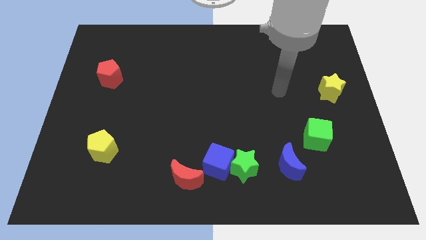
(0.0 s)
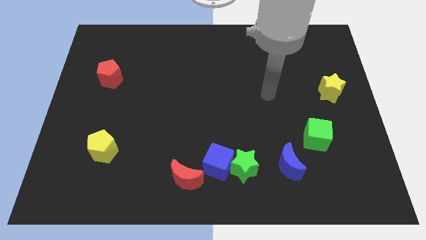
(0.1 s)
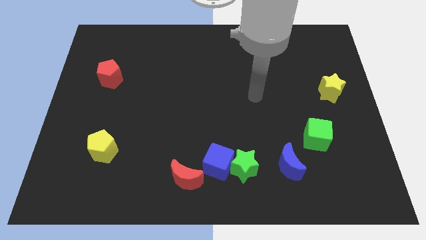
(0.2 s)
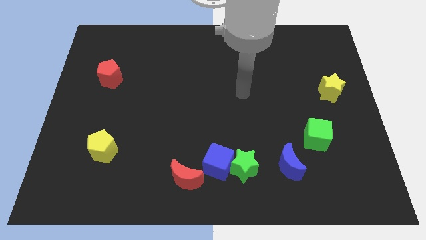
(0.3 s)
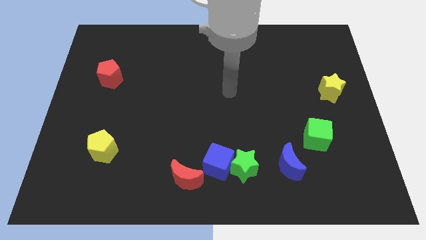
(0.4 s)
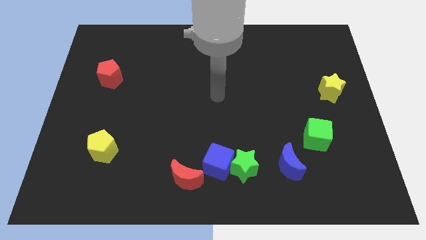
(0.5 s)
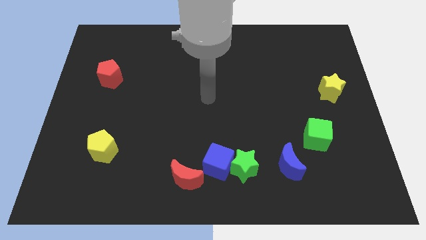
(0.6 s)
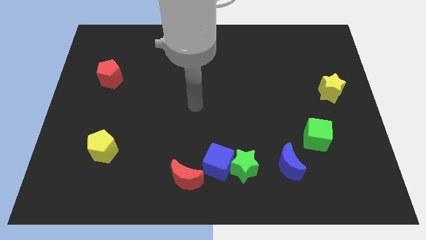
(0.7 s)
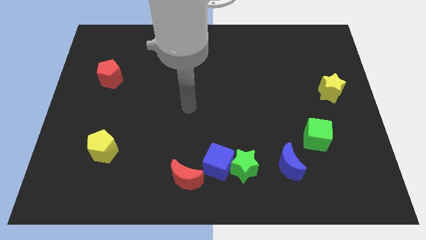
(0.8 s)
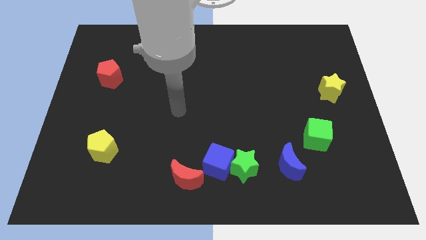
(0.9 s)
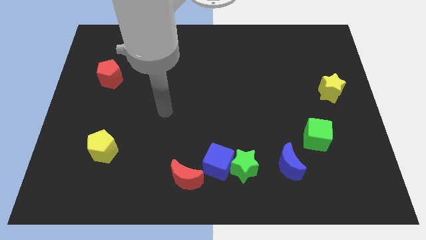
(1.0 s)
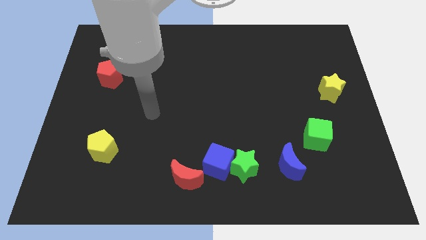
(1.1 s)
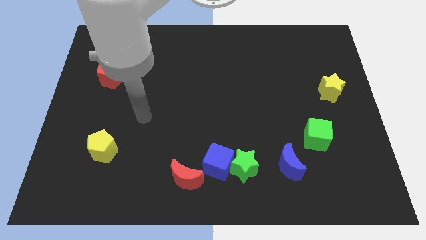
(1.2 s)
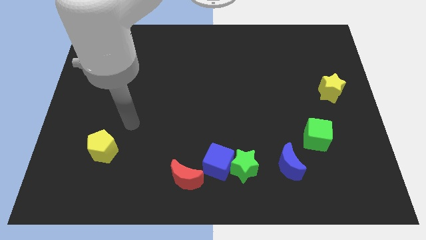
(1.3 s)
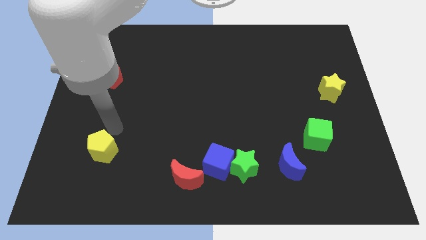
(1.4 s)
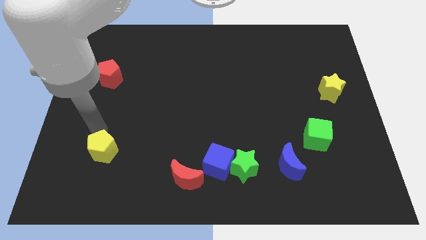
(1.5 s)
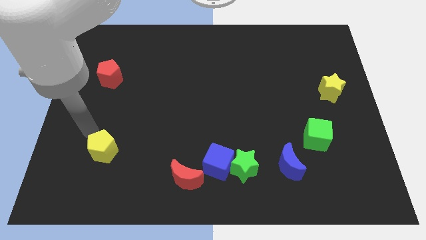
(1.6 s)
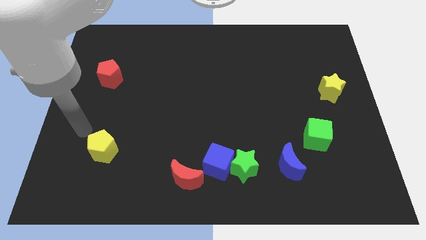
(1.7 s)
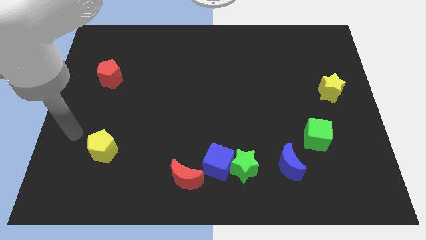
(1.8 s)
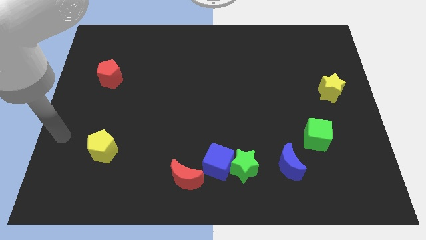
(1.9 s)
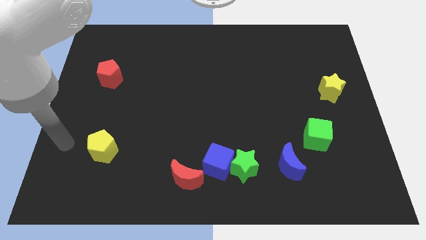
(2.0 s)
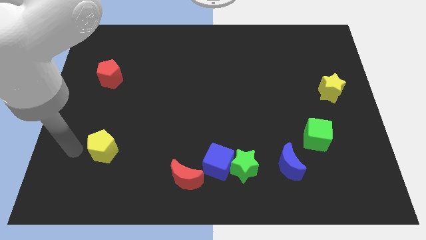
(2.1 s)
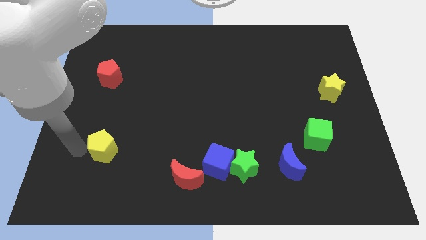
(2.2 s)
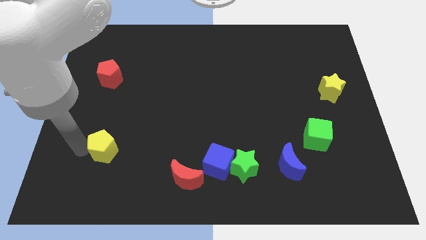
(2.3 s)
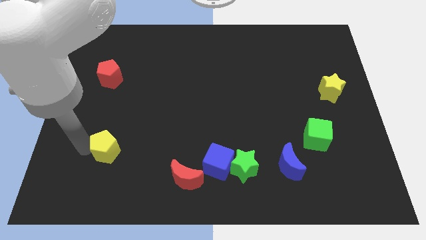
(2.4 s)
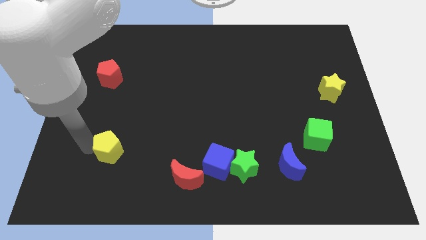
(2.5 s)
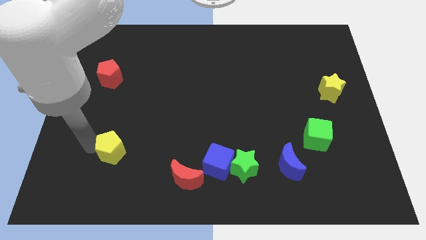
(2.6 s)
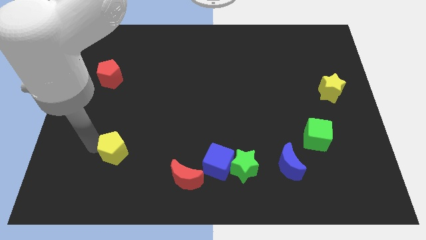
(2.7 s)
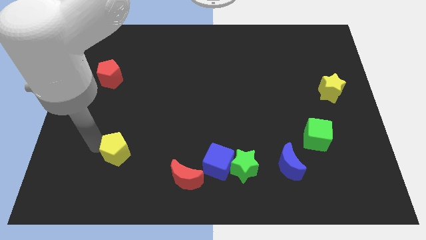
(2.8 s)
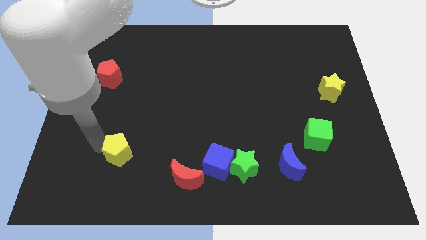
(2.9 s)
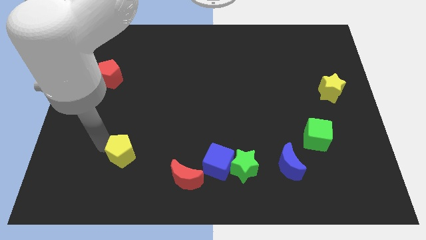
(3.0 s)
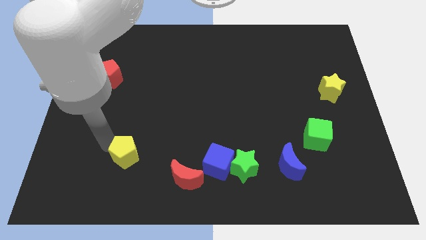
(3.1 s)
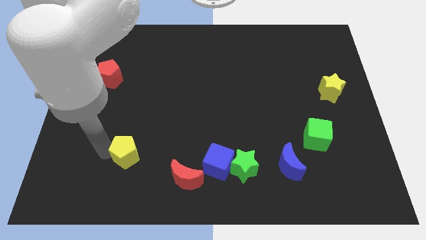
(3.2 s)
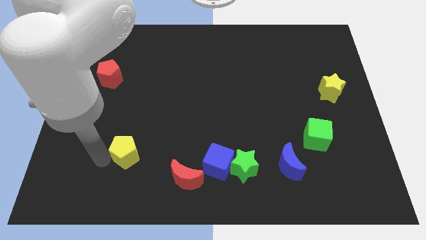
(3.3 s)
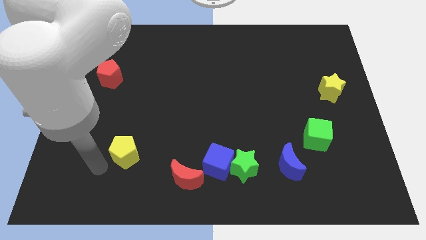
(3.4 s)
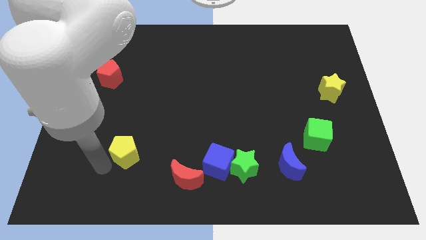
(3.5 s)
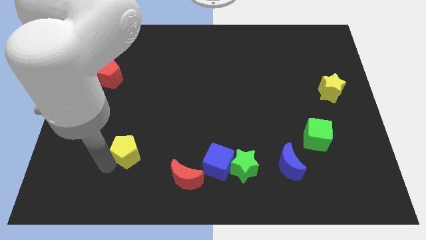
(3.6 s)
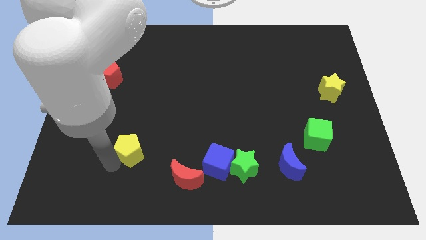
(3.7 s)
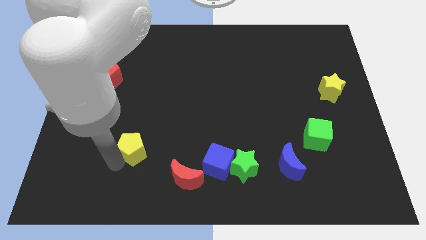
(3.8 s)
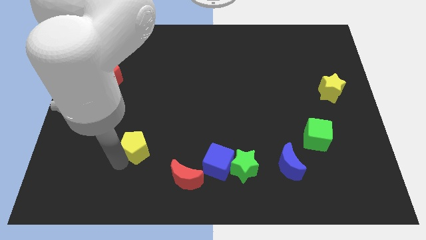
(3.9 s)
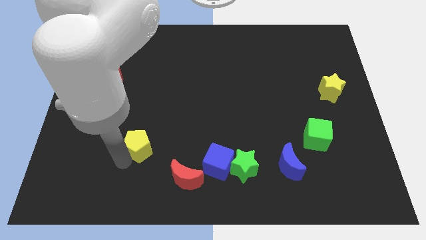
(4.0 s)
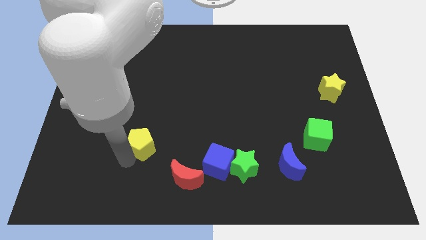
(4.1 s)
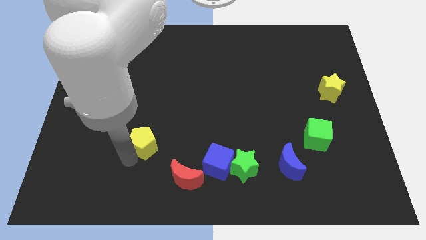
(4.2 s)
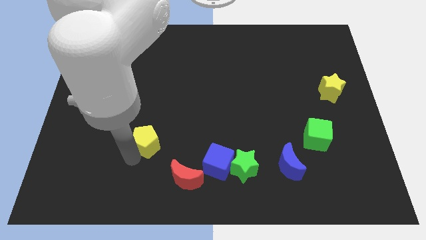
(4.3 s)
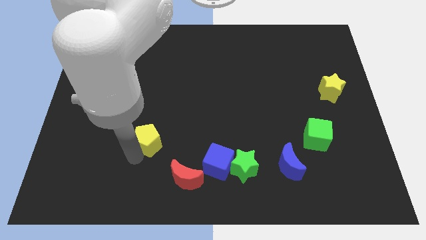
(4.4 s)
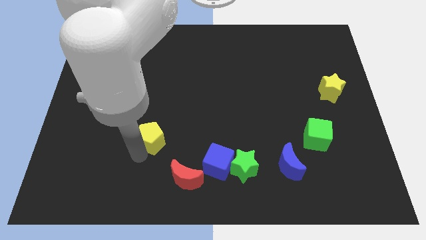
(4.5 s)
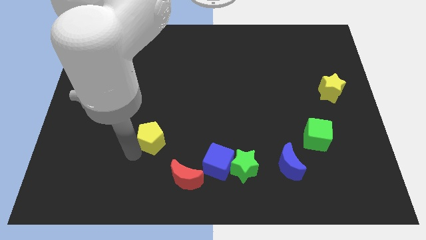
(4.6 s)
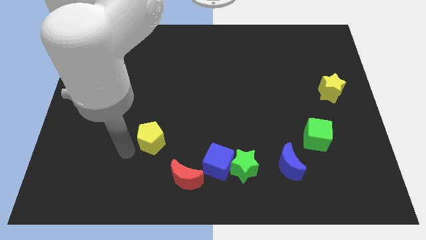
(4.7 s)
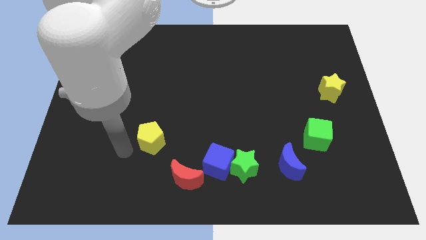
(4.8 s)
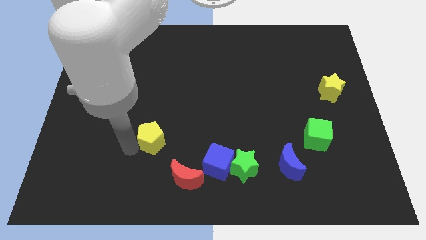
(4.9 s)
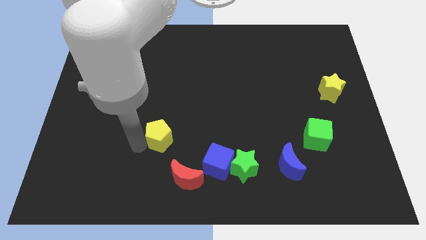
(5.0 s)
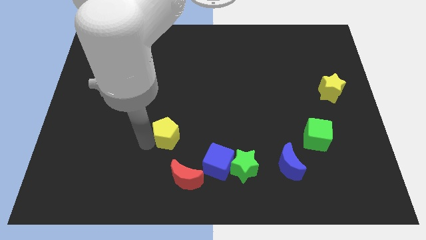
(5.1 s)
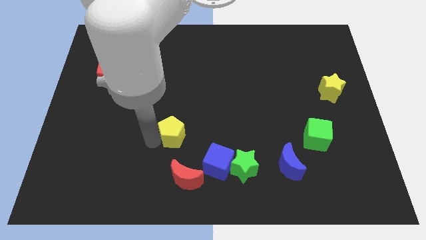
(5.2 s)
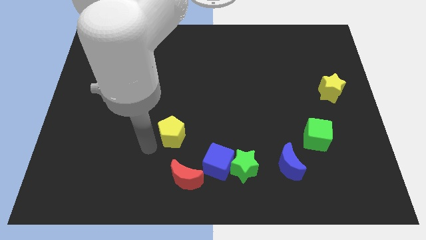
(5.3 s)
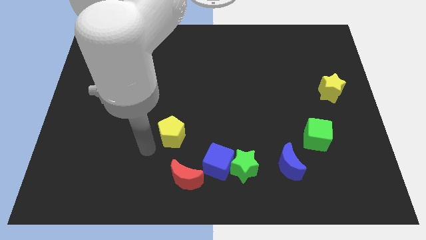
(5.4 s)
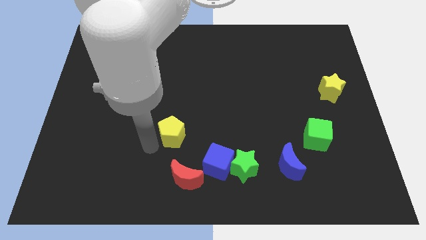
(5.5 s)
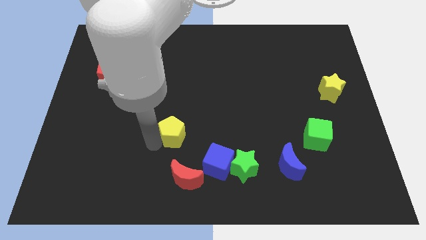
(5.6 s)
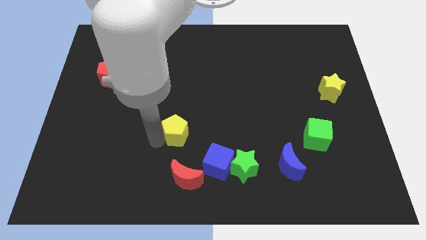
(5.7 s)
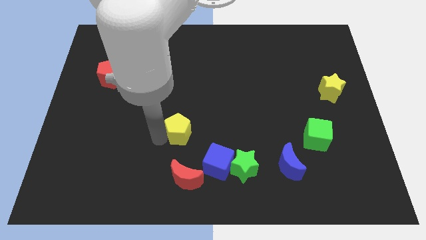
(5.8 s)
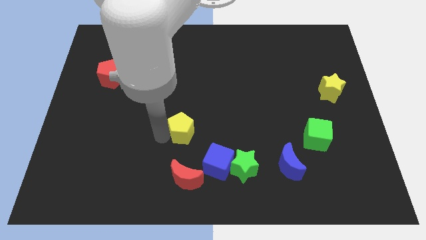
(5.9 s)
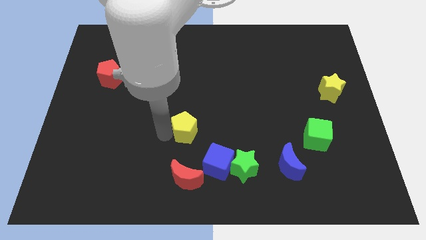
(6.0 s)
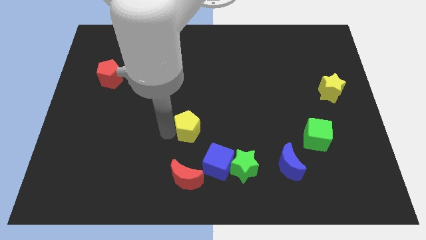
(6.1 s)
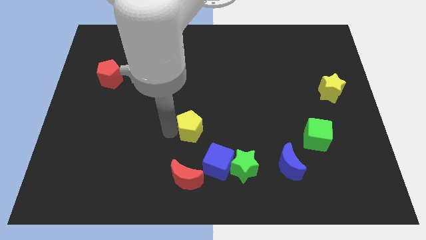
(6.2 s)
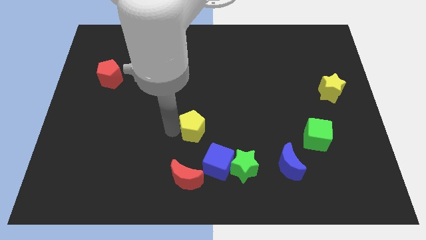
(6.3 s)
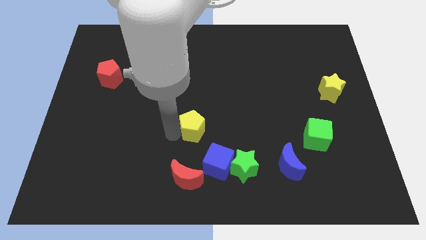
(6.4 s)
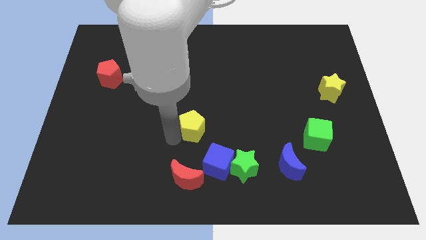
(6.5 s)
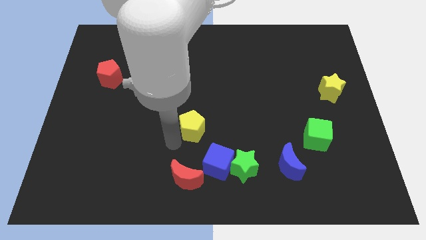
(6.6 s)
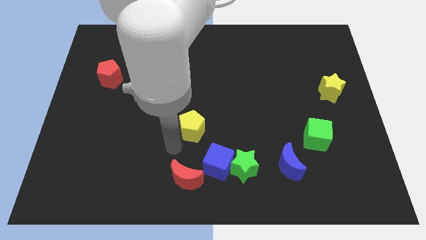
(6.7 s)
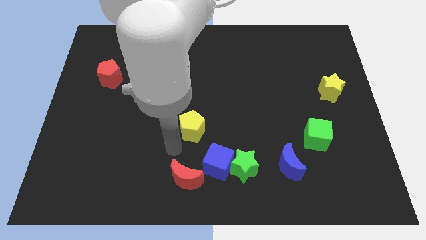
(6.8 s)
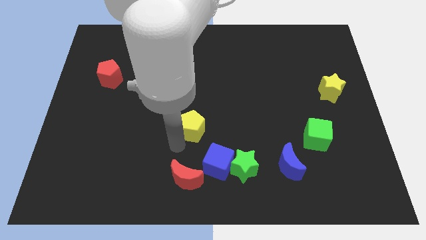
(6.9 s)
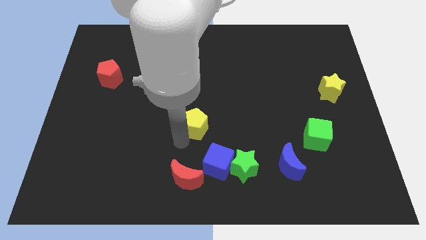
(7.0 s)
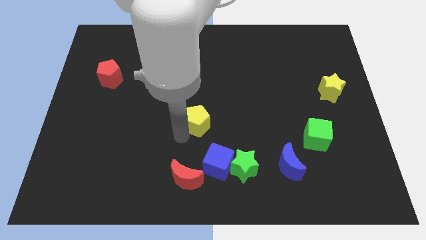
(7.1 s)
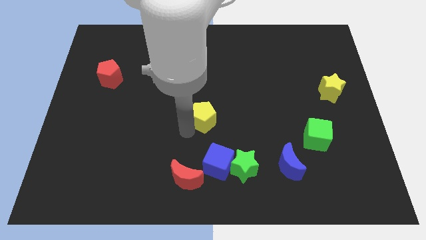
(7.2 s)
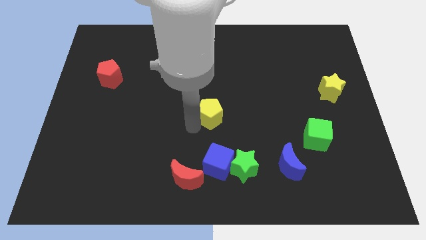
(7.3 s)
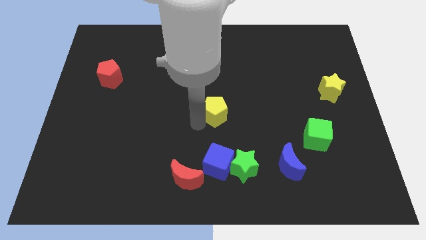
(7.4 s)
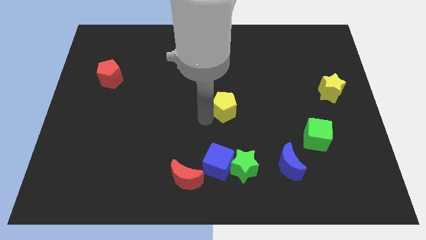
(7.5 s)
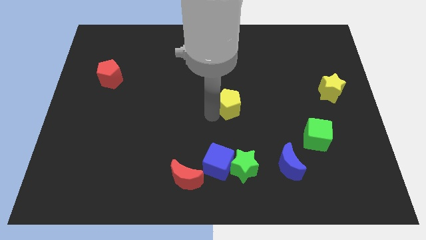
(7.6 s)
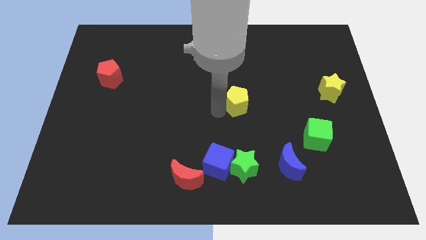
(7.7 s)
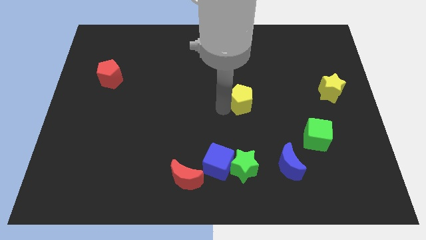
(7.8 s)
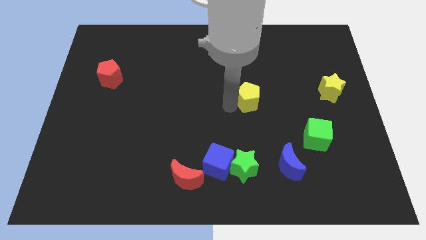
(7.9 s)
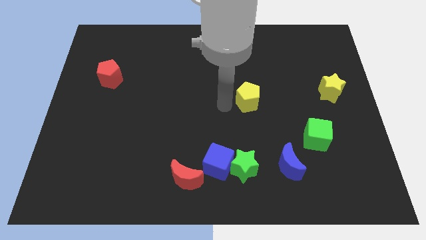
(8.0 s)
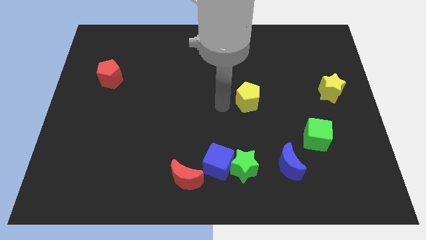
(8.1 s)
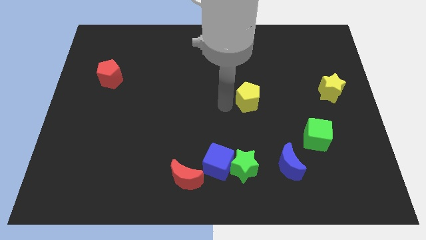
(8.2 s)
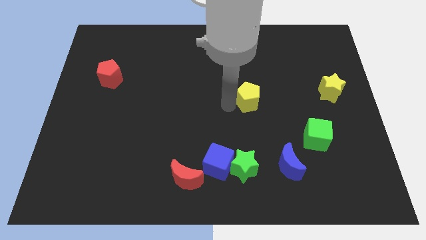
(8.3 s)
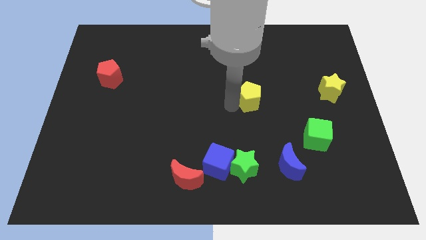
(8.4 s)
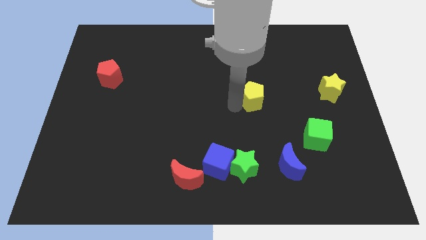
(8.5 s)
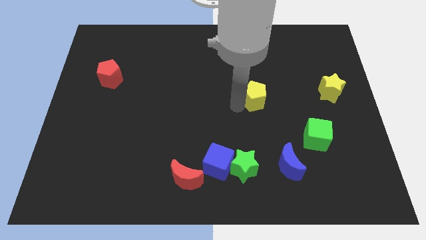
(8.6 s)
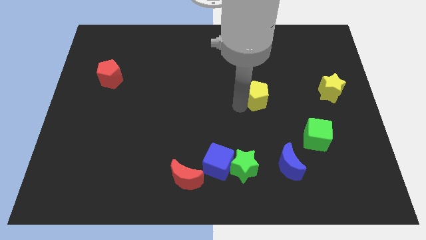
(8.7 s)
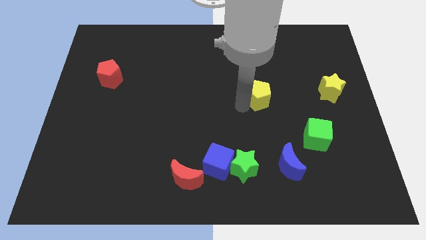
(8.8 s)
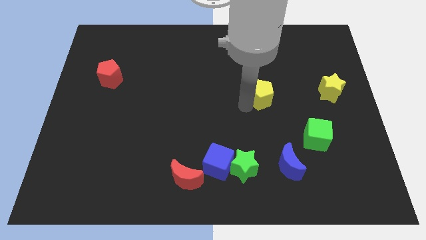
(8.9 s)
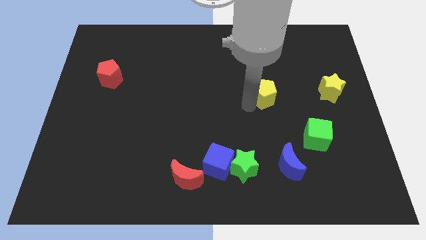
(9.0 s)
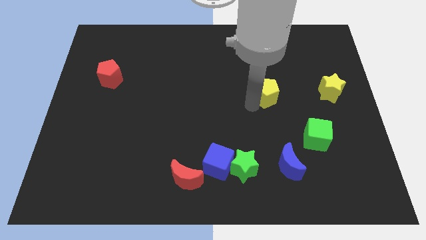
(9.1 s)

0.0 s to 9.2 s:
push the yellow pentagon to the left side of the yellow star
